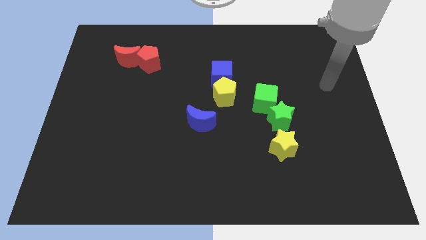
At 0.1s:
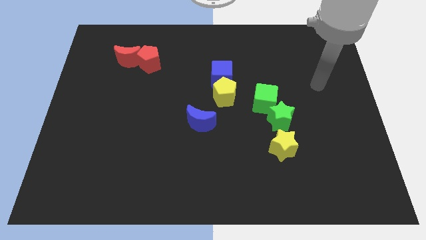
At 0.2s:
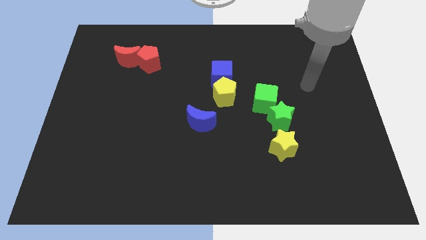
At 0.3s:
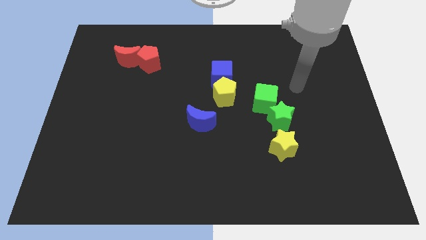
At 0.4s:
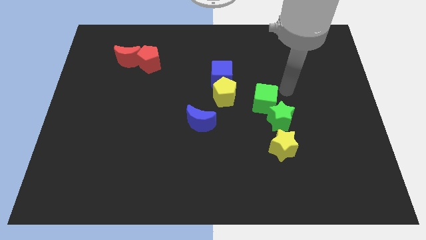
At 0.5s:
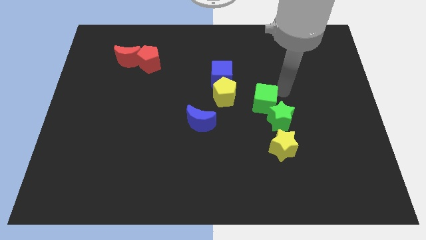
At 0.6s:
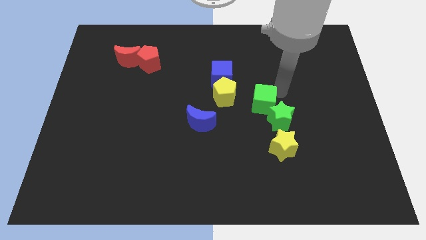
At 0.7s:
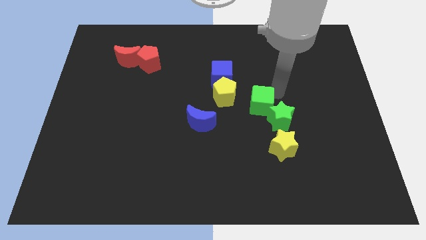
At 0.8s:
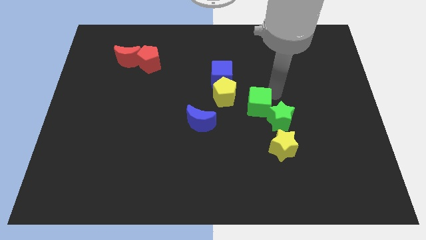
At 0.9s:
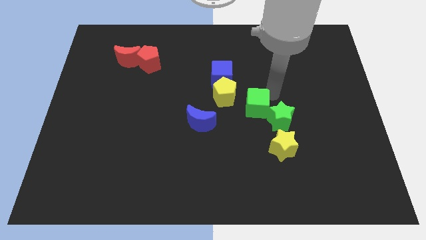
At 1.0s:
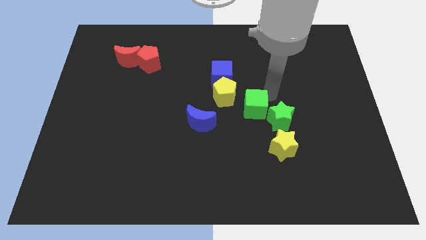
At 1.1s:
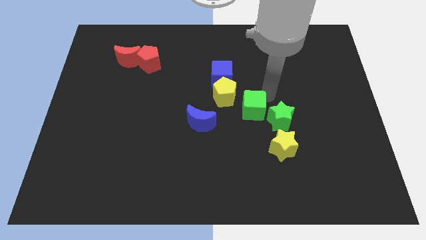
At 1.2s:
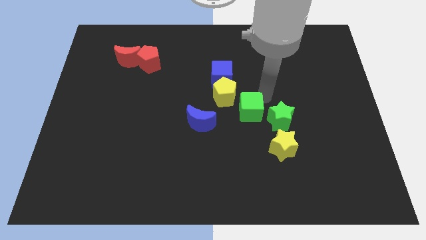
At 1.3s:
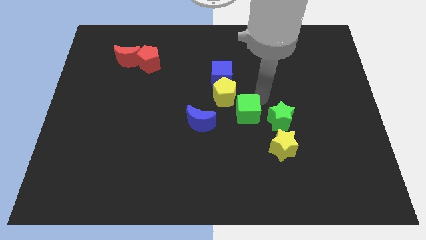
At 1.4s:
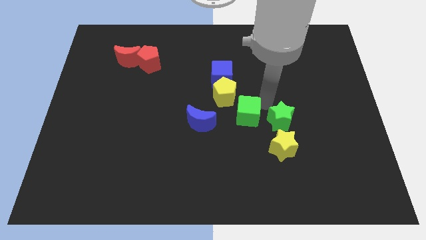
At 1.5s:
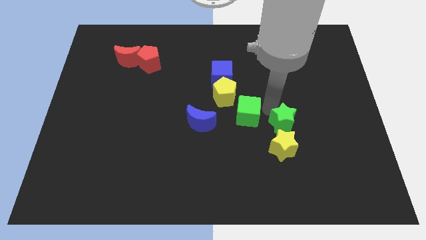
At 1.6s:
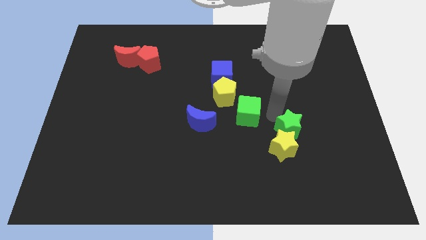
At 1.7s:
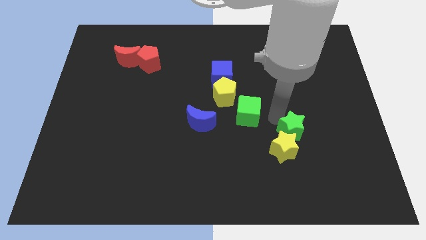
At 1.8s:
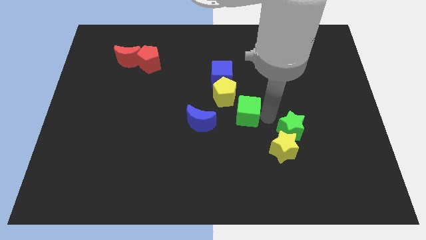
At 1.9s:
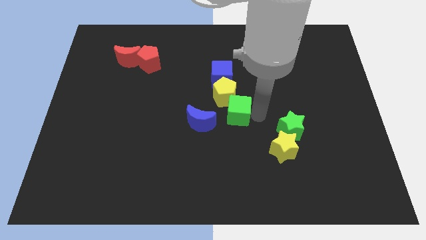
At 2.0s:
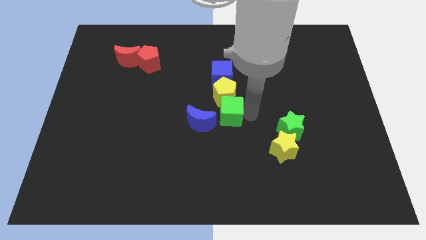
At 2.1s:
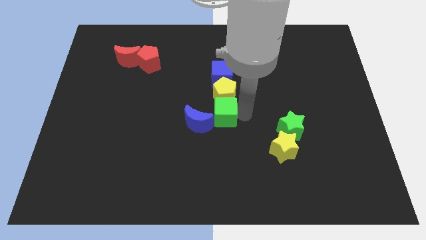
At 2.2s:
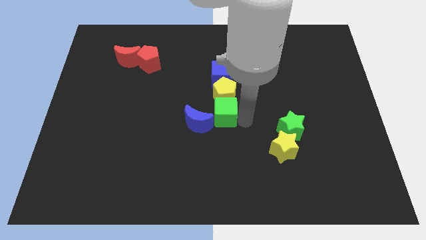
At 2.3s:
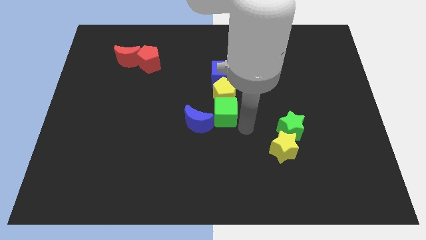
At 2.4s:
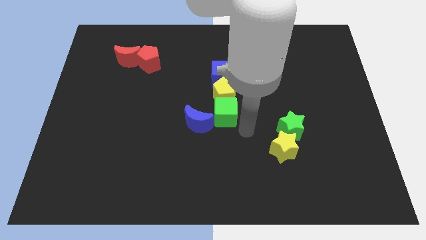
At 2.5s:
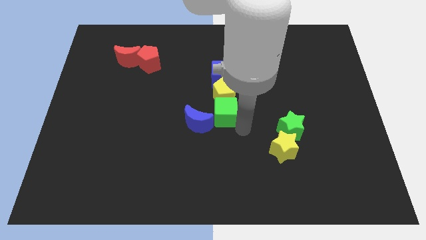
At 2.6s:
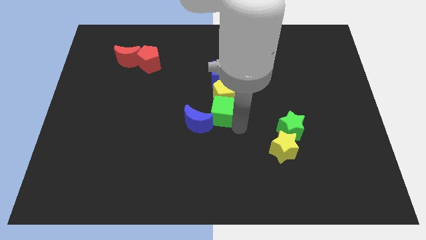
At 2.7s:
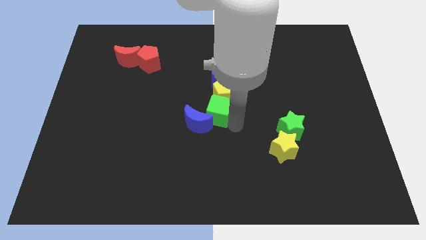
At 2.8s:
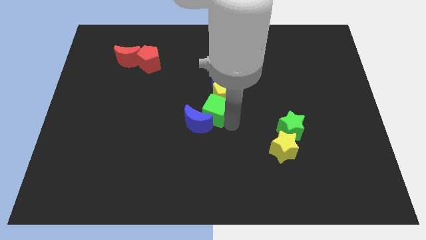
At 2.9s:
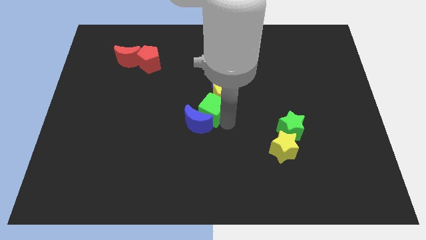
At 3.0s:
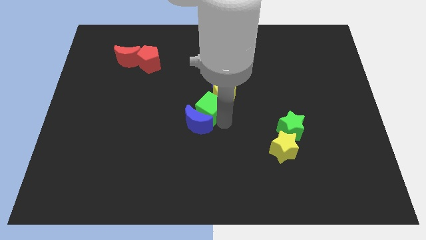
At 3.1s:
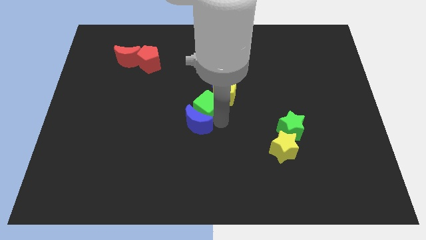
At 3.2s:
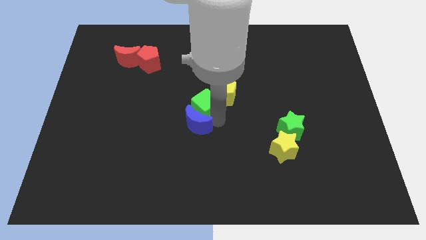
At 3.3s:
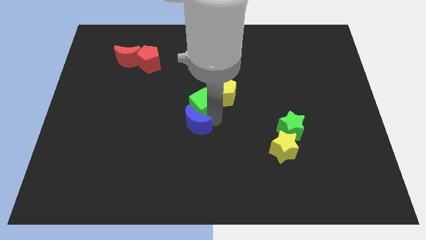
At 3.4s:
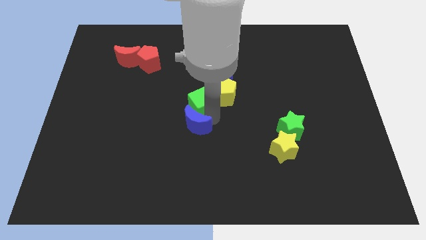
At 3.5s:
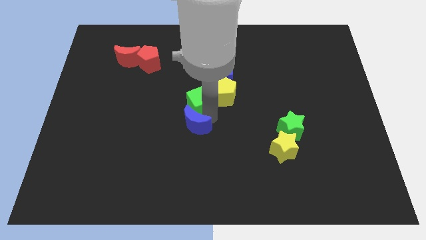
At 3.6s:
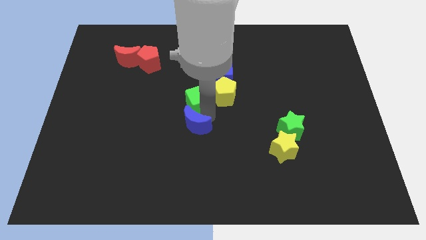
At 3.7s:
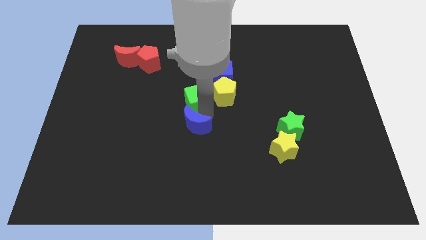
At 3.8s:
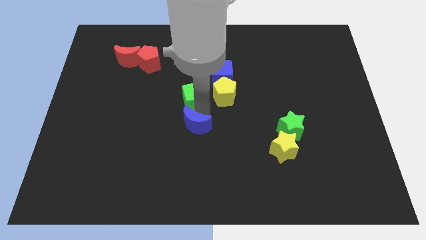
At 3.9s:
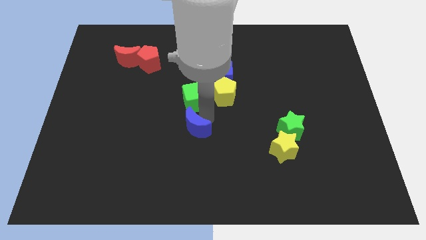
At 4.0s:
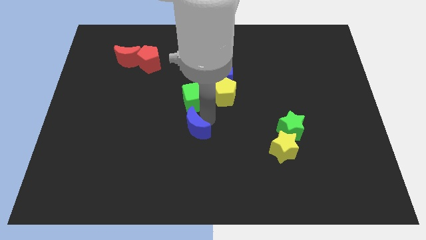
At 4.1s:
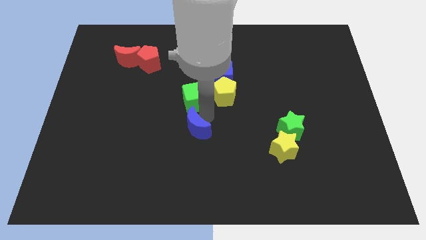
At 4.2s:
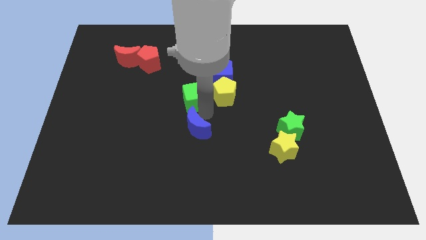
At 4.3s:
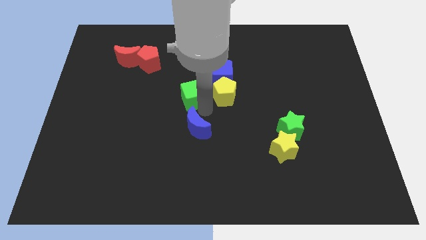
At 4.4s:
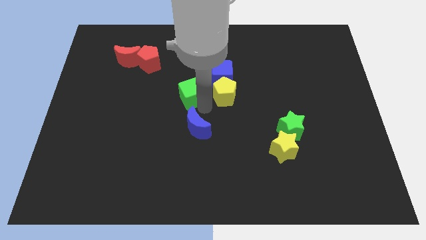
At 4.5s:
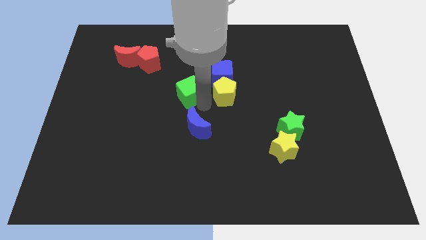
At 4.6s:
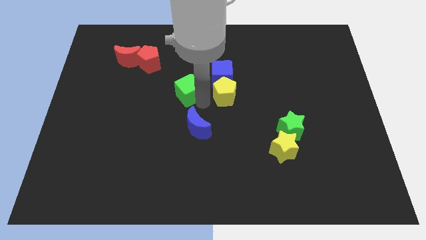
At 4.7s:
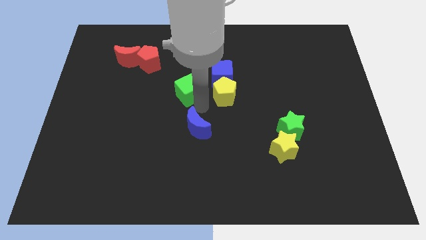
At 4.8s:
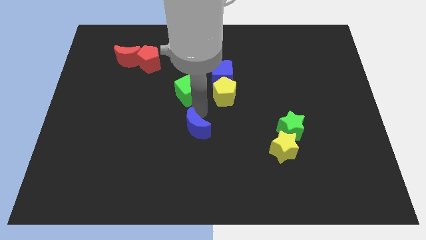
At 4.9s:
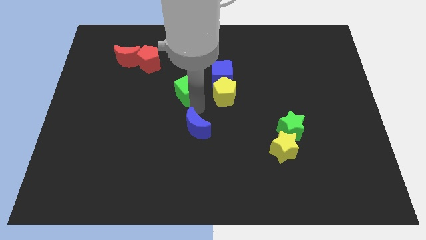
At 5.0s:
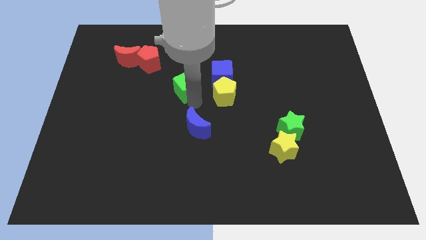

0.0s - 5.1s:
slide the green cube to the left side of the blue cube

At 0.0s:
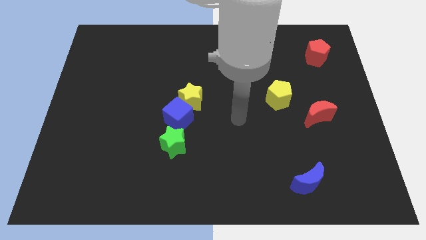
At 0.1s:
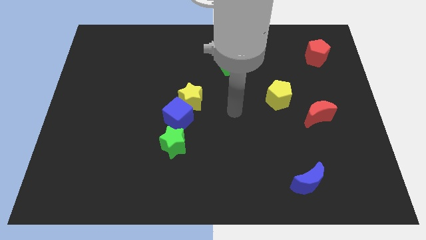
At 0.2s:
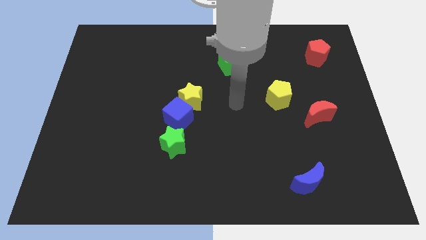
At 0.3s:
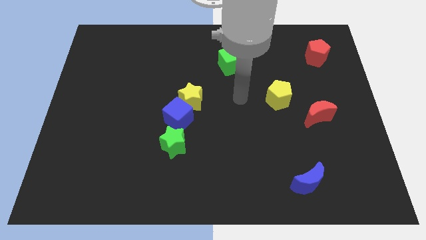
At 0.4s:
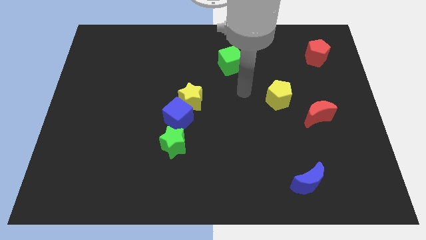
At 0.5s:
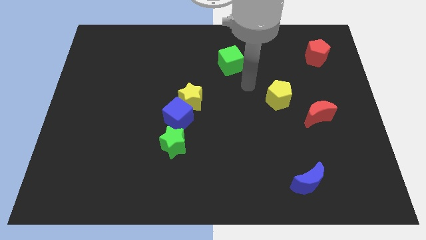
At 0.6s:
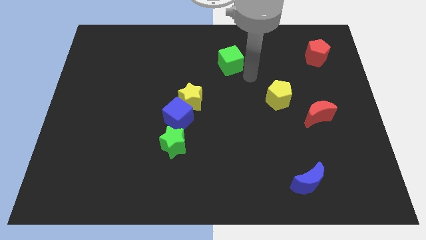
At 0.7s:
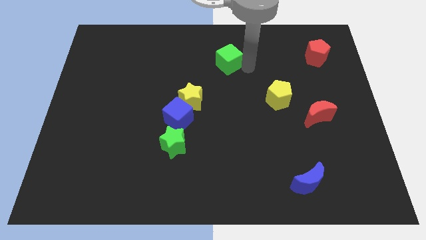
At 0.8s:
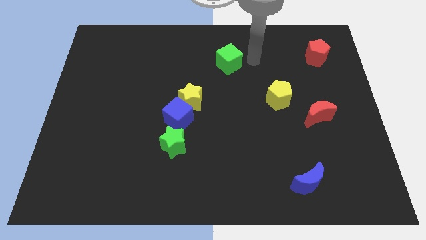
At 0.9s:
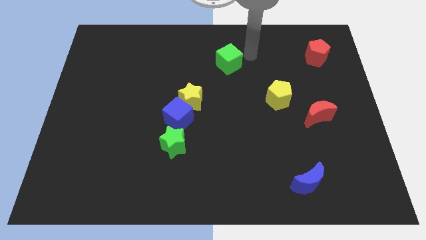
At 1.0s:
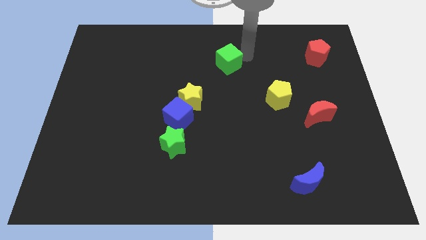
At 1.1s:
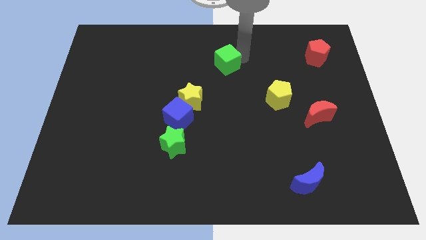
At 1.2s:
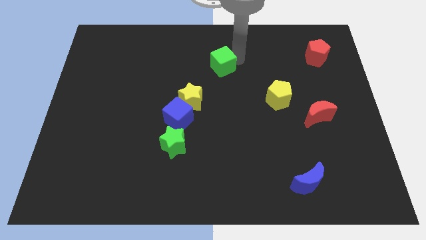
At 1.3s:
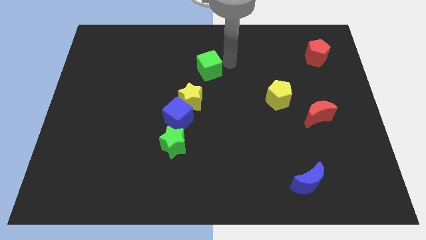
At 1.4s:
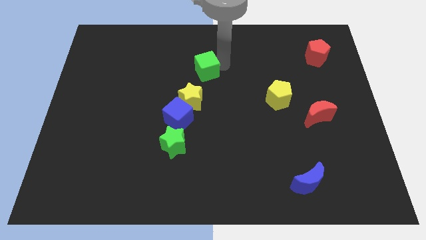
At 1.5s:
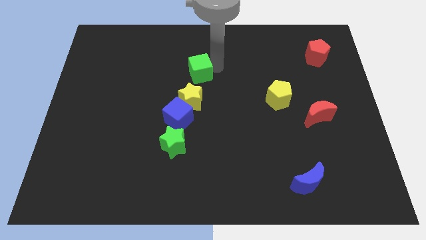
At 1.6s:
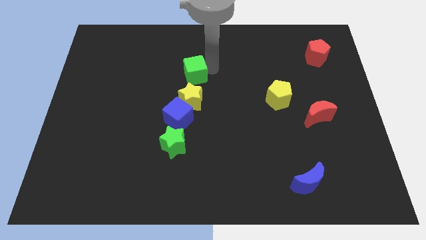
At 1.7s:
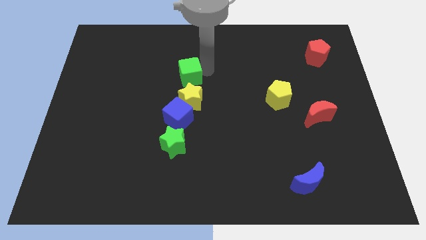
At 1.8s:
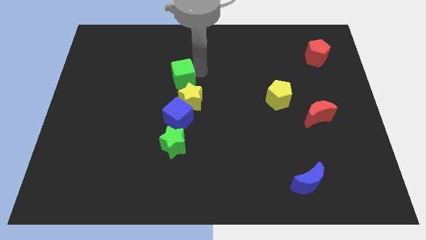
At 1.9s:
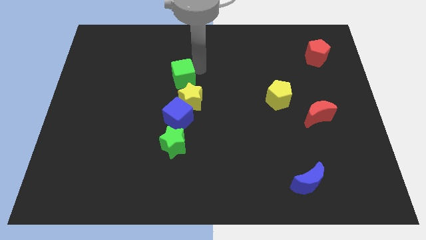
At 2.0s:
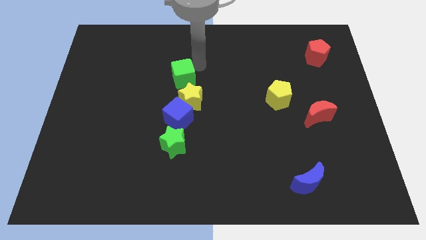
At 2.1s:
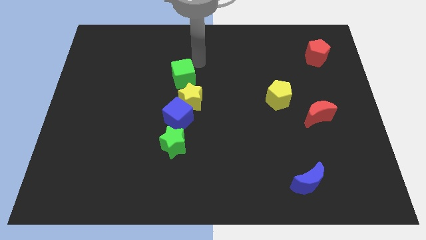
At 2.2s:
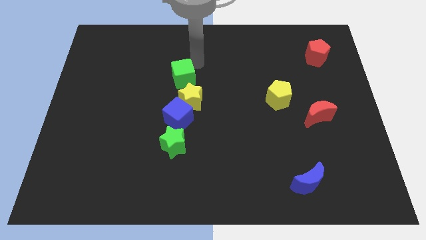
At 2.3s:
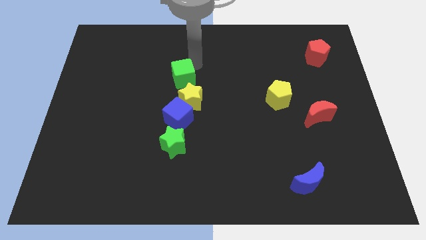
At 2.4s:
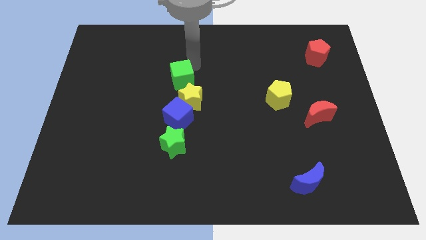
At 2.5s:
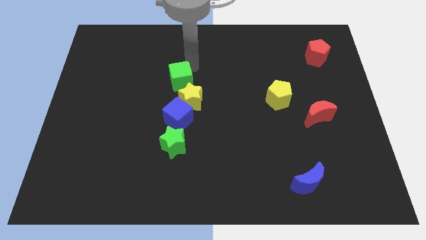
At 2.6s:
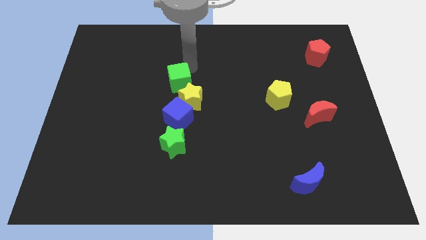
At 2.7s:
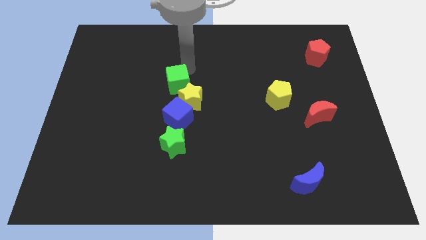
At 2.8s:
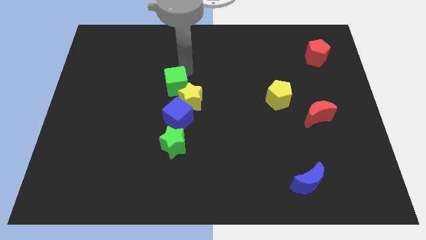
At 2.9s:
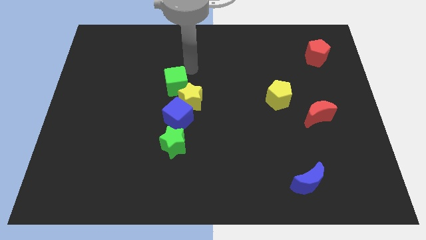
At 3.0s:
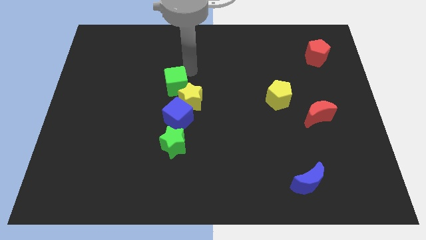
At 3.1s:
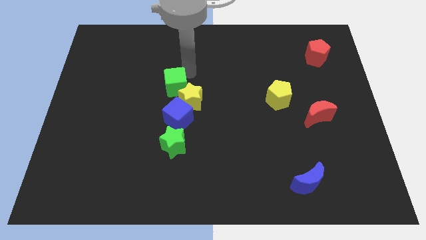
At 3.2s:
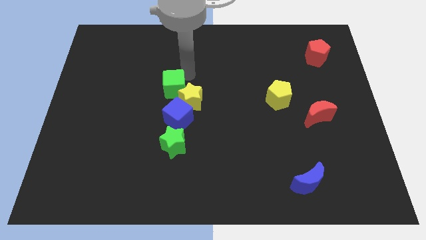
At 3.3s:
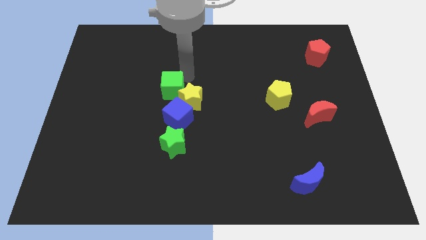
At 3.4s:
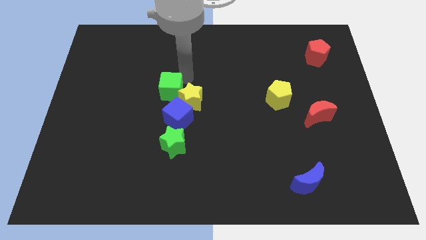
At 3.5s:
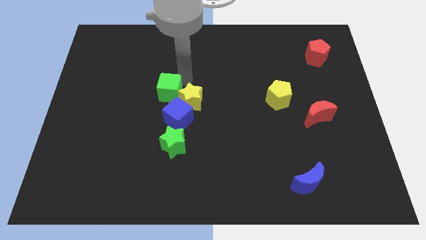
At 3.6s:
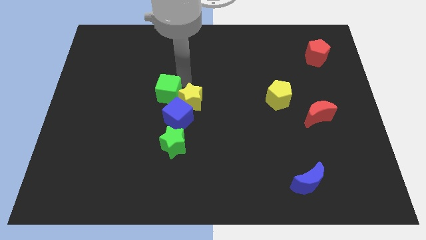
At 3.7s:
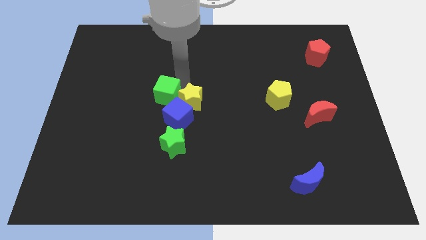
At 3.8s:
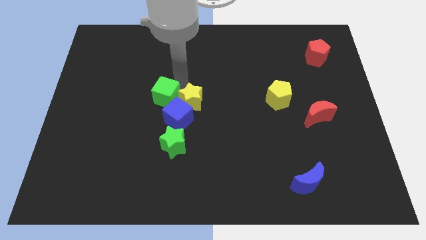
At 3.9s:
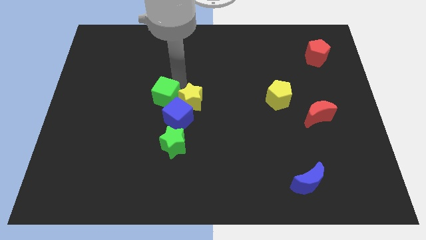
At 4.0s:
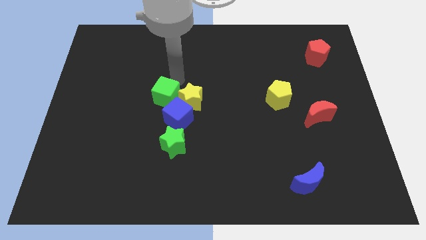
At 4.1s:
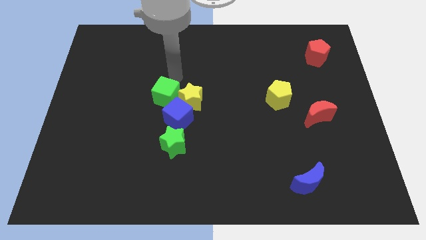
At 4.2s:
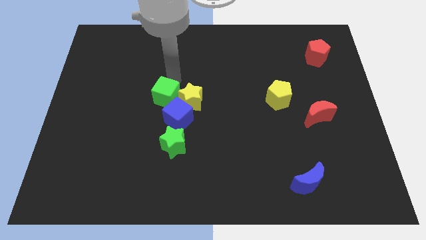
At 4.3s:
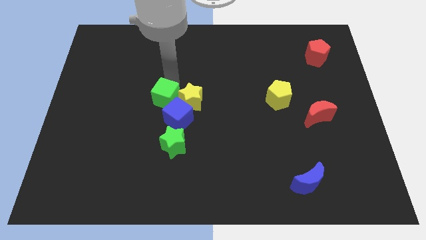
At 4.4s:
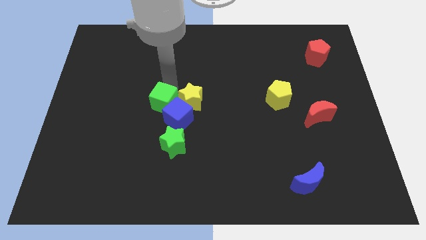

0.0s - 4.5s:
slide the green cube diagonally down and to the left of the yellow star
